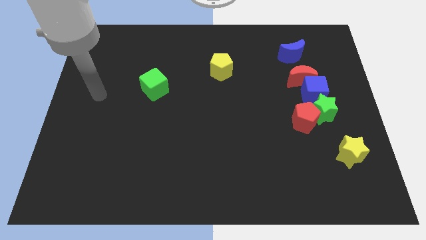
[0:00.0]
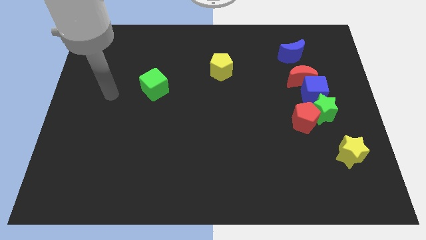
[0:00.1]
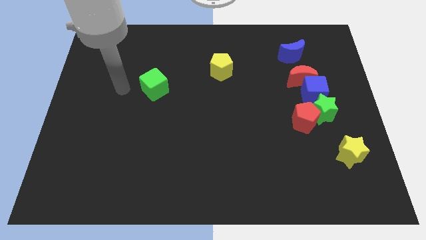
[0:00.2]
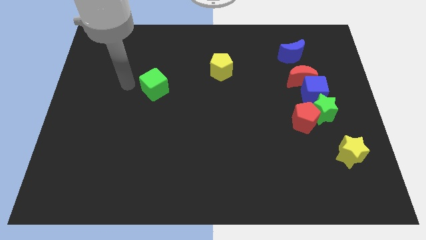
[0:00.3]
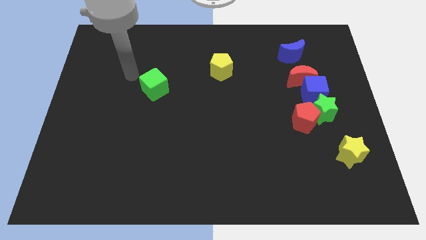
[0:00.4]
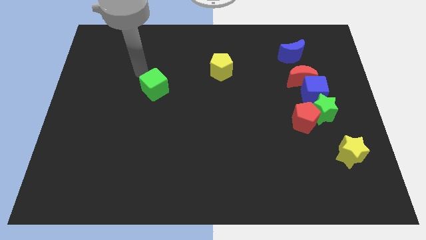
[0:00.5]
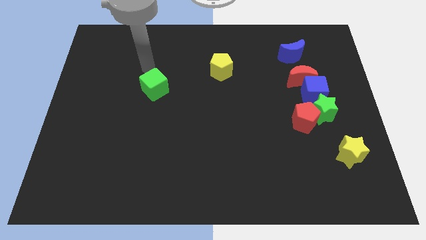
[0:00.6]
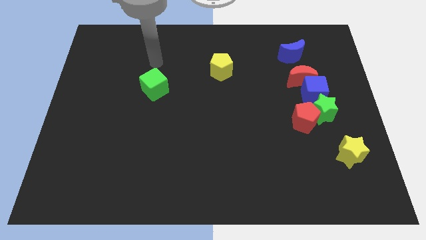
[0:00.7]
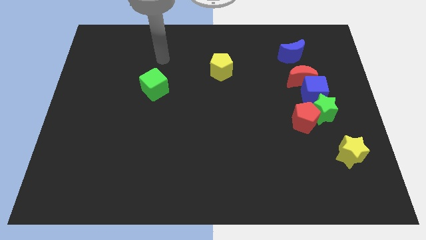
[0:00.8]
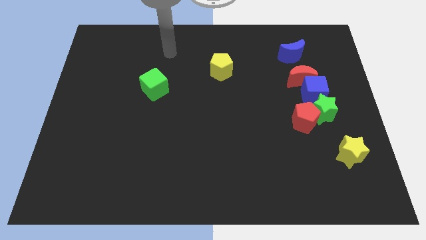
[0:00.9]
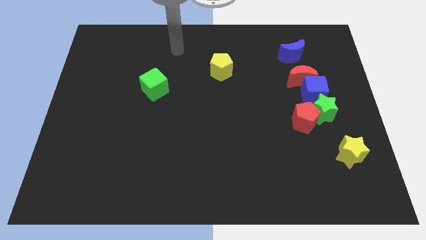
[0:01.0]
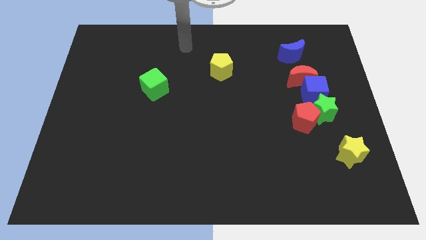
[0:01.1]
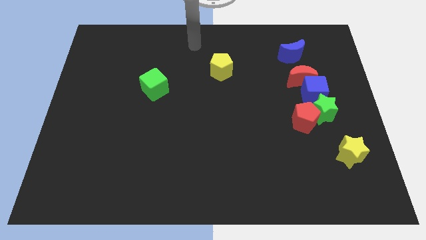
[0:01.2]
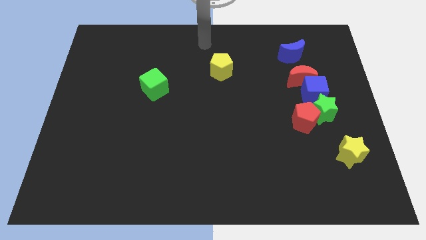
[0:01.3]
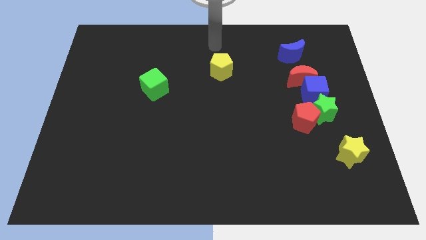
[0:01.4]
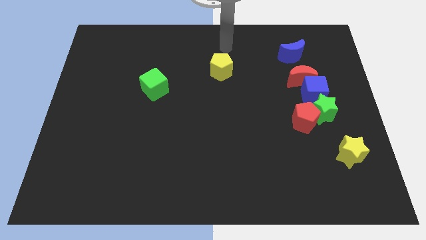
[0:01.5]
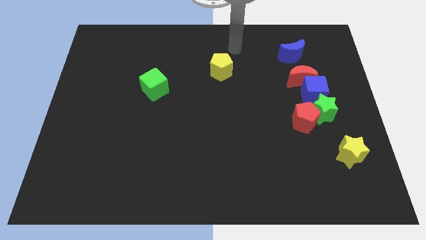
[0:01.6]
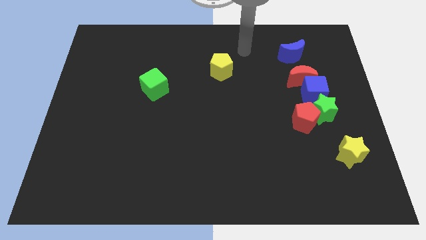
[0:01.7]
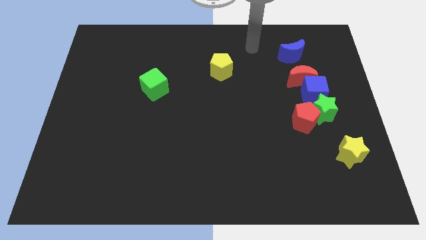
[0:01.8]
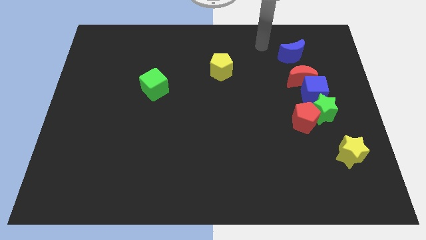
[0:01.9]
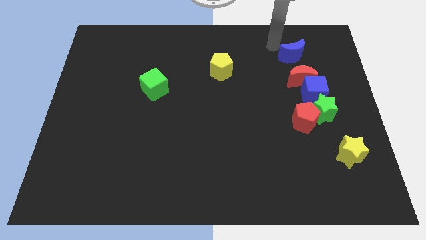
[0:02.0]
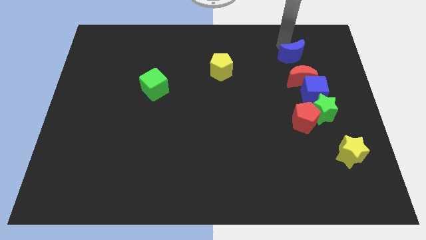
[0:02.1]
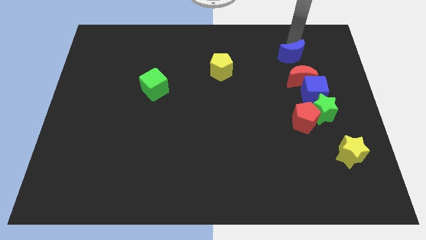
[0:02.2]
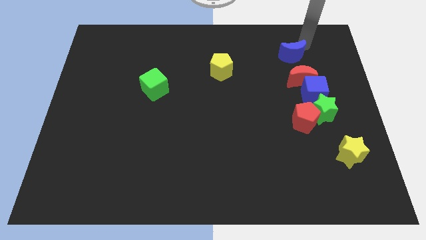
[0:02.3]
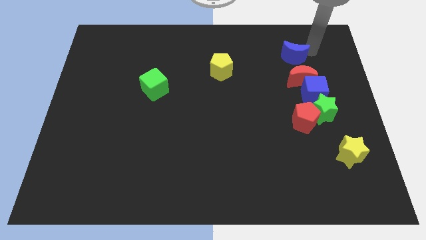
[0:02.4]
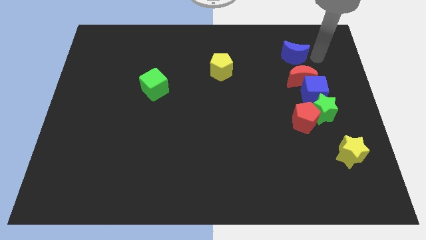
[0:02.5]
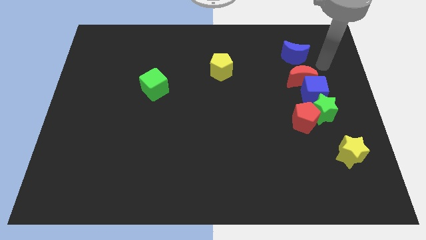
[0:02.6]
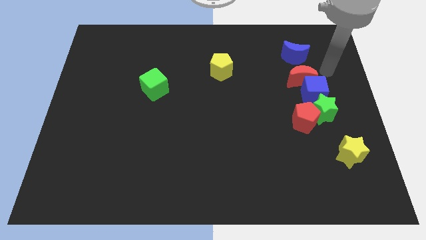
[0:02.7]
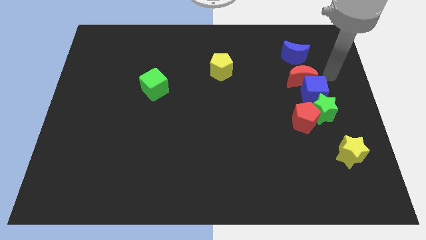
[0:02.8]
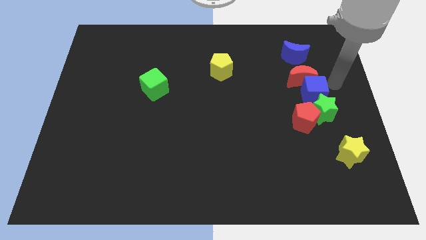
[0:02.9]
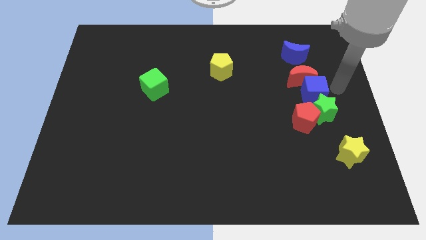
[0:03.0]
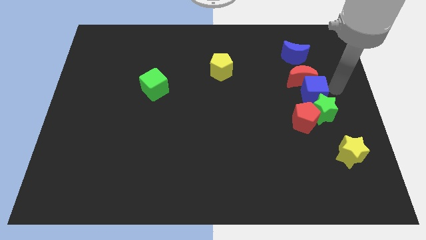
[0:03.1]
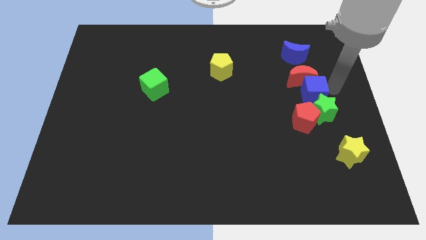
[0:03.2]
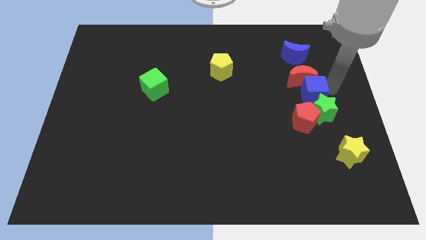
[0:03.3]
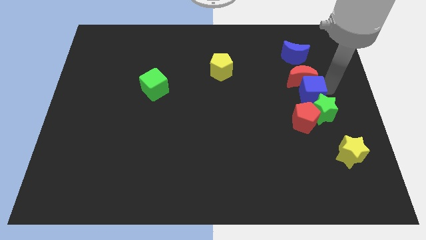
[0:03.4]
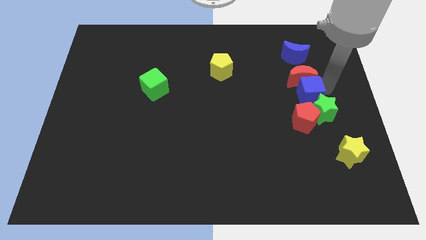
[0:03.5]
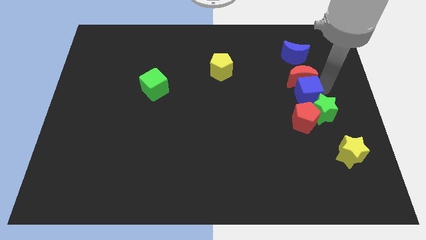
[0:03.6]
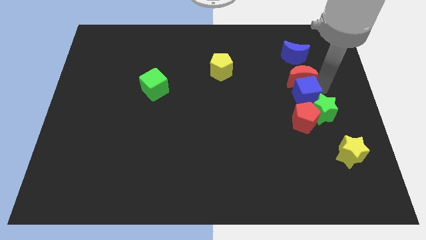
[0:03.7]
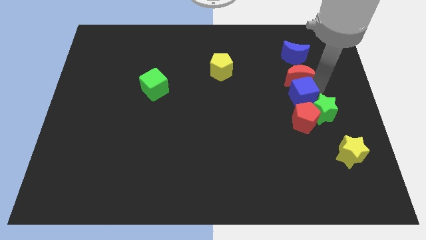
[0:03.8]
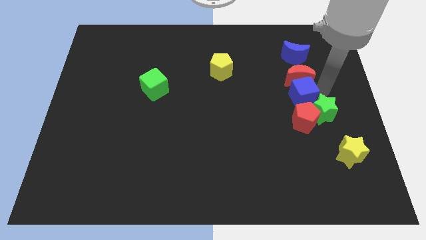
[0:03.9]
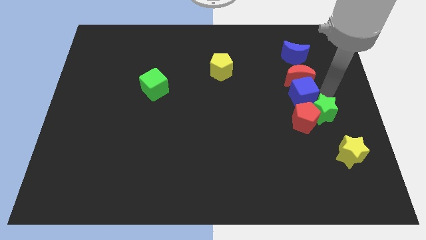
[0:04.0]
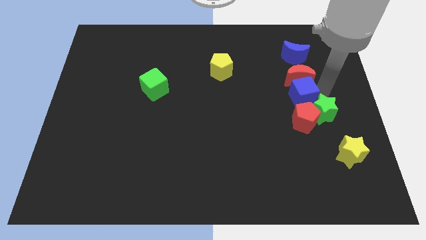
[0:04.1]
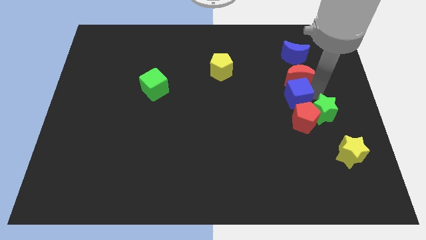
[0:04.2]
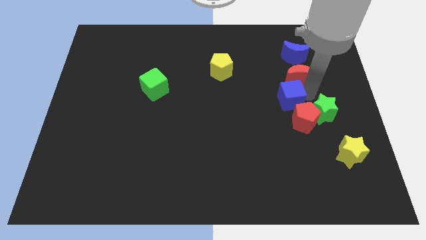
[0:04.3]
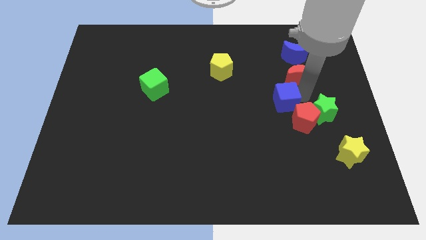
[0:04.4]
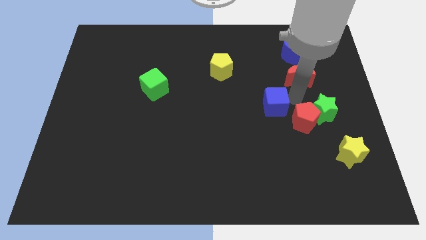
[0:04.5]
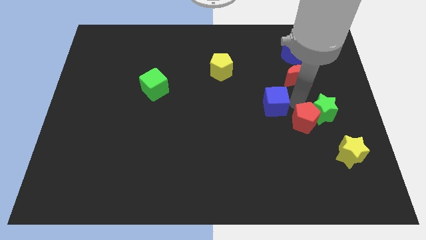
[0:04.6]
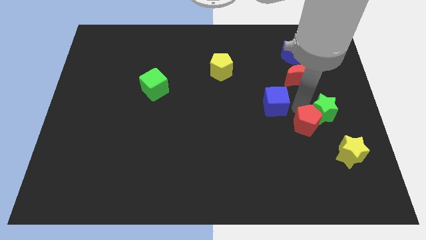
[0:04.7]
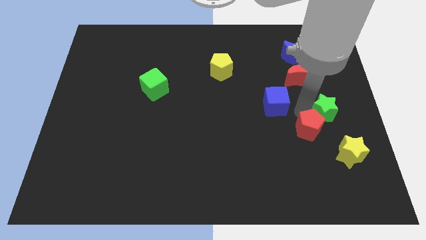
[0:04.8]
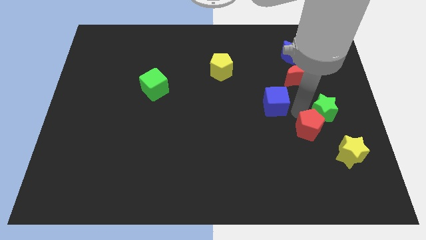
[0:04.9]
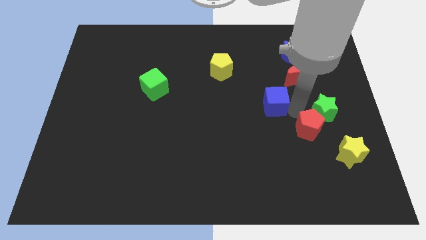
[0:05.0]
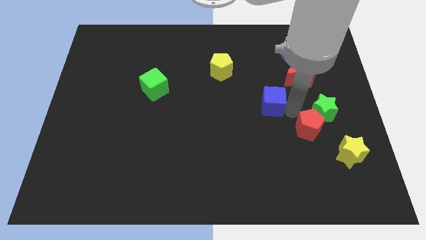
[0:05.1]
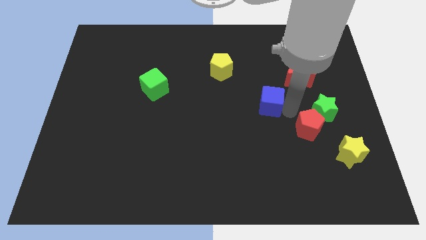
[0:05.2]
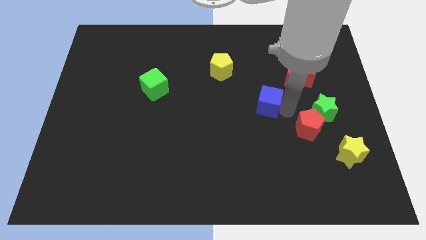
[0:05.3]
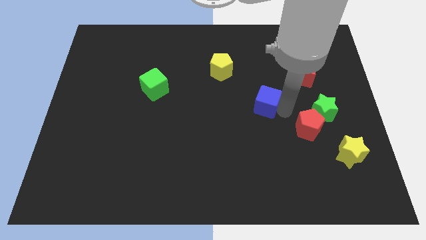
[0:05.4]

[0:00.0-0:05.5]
move the blue cube to the middle

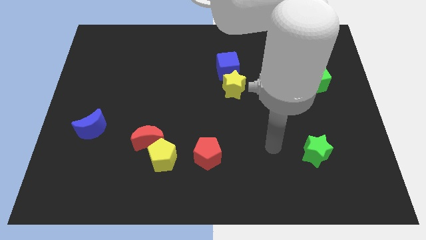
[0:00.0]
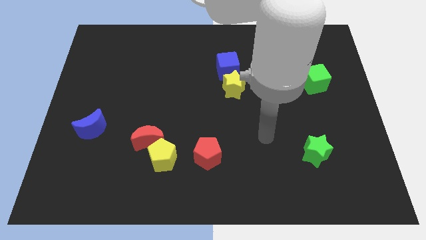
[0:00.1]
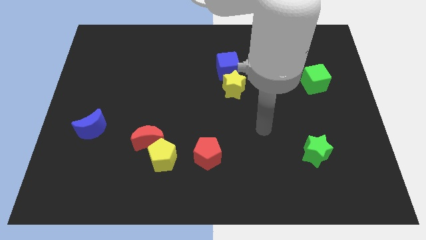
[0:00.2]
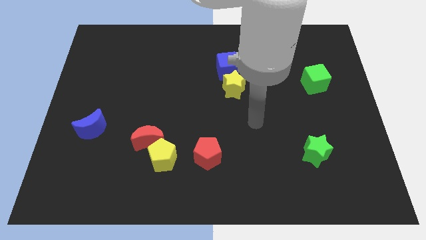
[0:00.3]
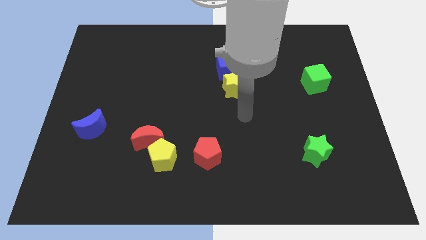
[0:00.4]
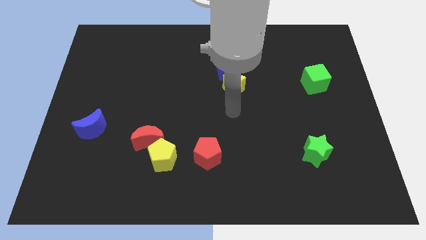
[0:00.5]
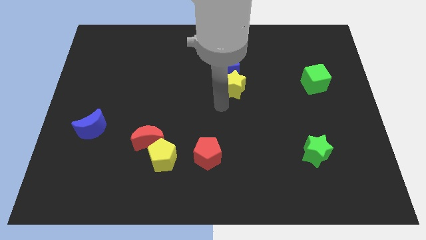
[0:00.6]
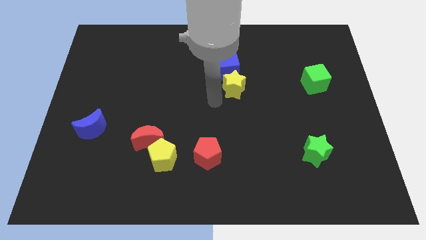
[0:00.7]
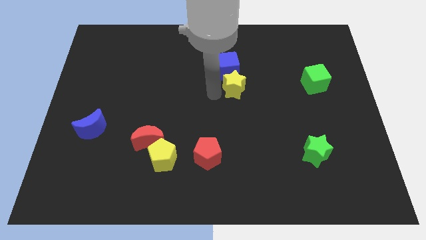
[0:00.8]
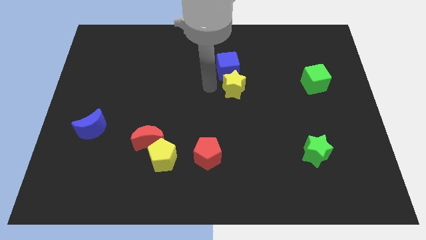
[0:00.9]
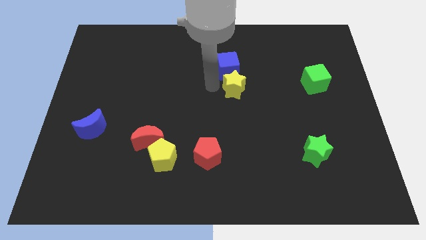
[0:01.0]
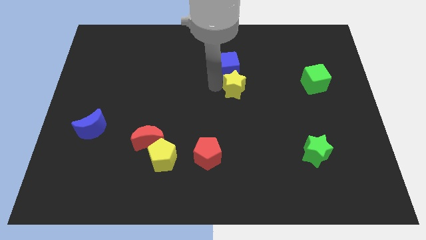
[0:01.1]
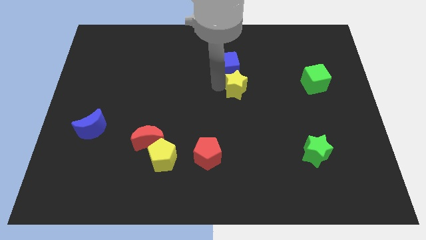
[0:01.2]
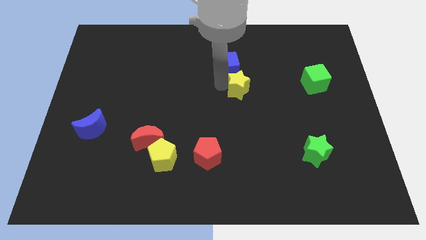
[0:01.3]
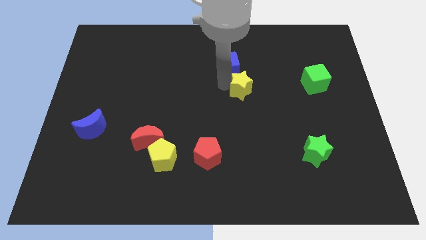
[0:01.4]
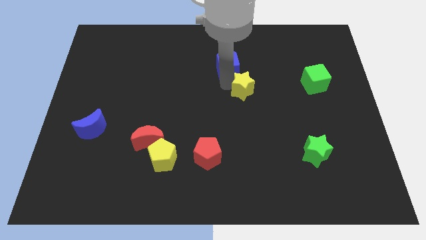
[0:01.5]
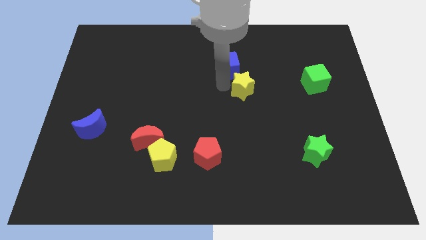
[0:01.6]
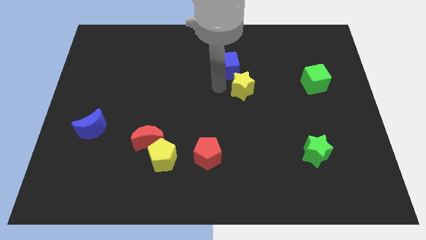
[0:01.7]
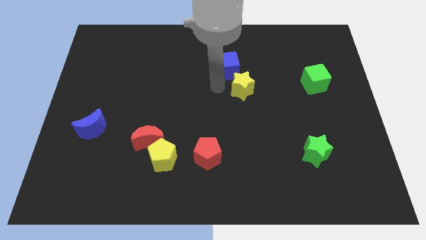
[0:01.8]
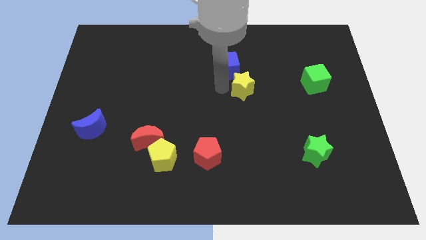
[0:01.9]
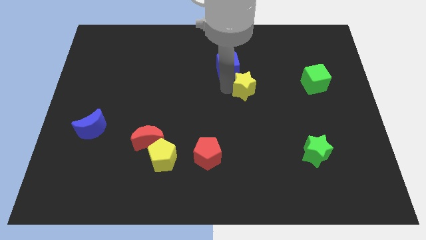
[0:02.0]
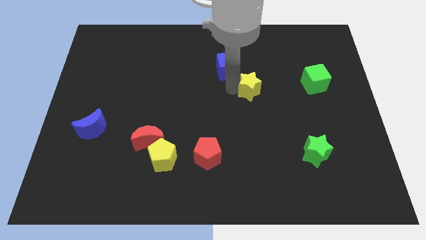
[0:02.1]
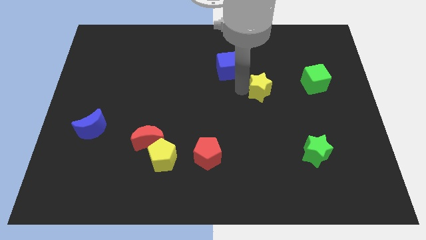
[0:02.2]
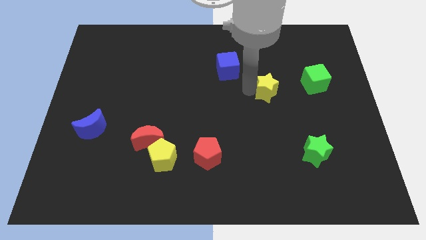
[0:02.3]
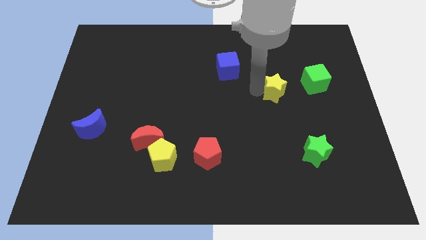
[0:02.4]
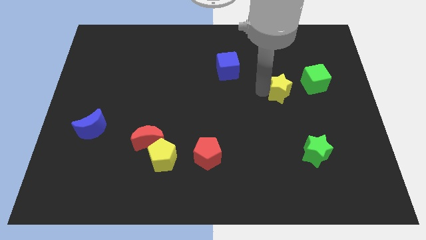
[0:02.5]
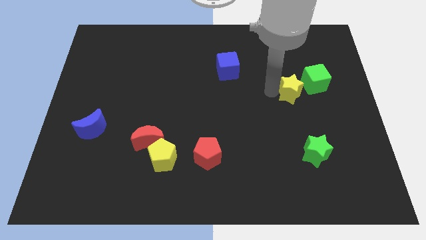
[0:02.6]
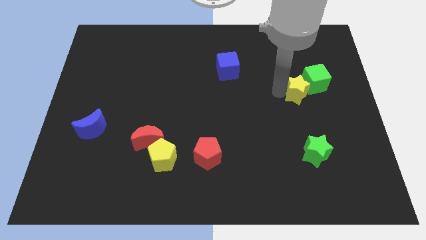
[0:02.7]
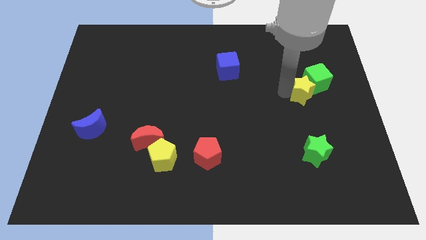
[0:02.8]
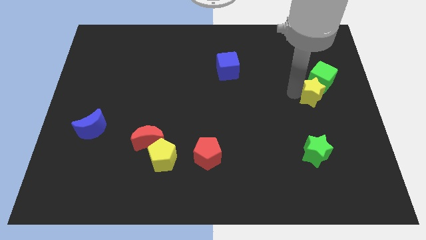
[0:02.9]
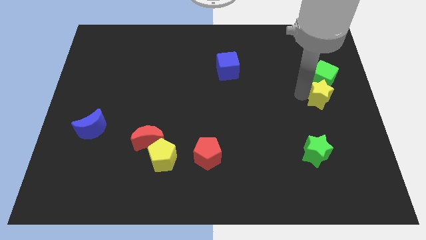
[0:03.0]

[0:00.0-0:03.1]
push the yellow star to the right side of the board

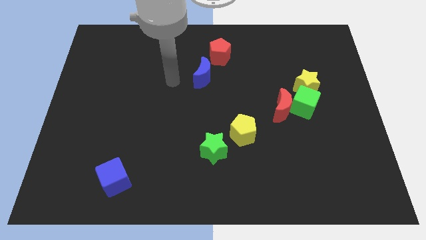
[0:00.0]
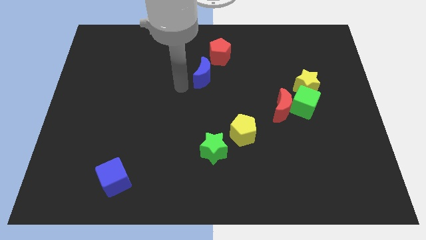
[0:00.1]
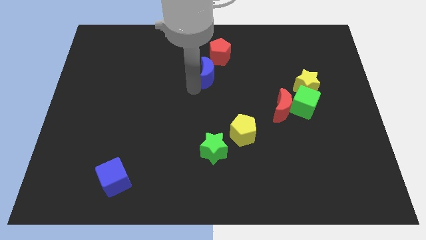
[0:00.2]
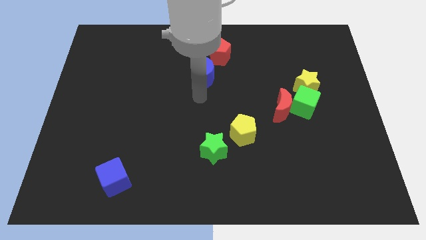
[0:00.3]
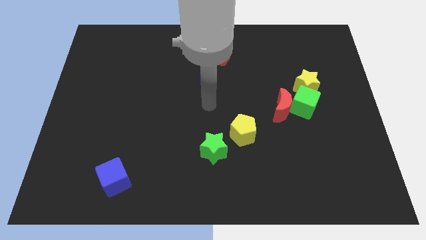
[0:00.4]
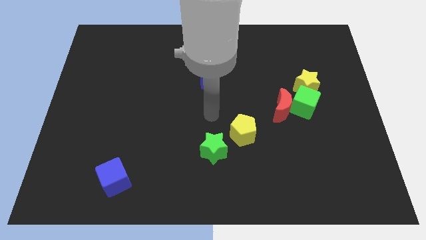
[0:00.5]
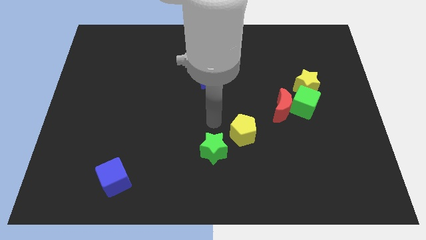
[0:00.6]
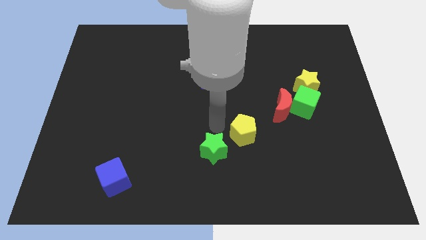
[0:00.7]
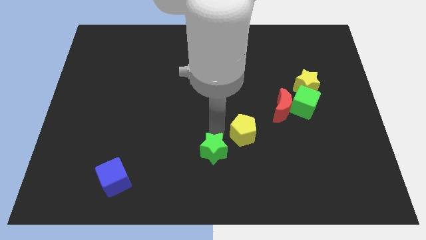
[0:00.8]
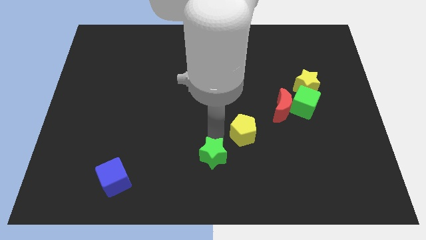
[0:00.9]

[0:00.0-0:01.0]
slide the green star to the bottom
